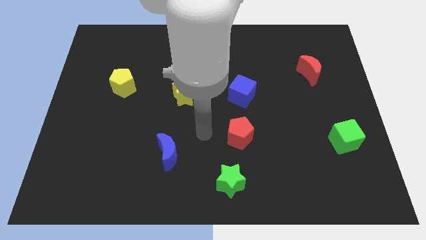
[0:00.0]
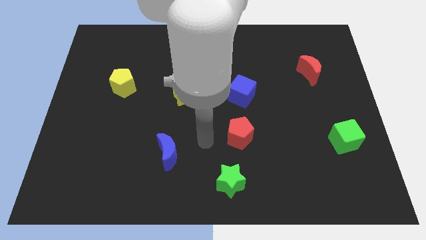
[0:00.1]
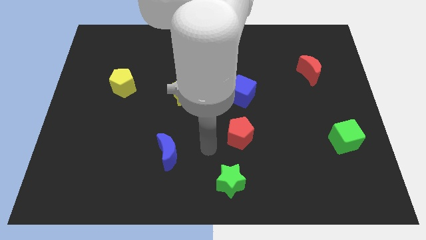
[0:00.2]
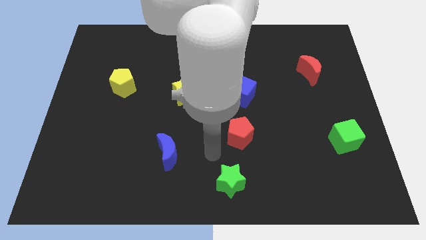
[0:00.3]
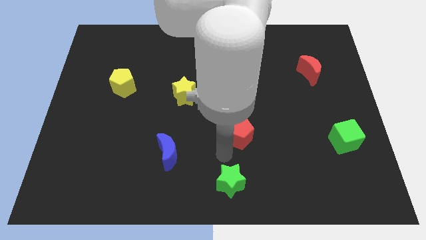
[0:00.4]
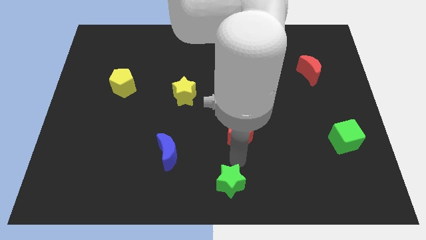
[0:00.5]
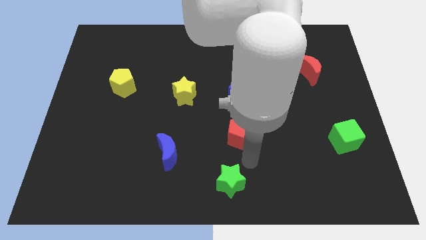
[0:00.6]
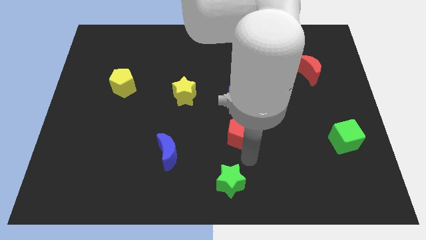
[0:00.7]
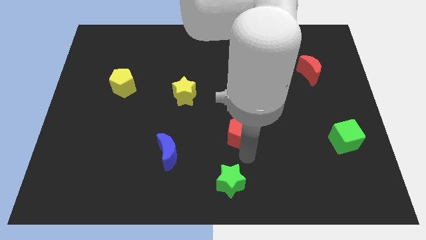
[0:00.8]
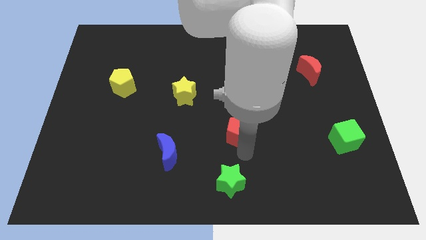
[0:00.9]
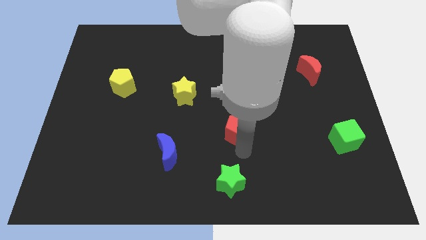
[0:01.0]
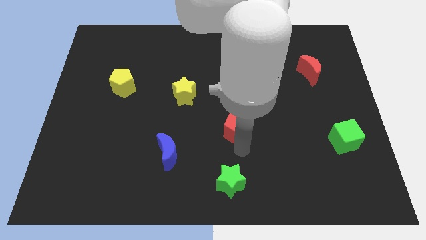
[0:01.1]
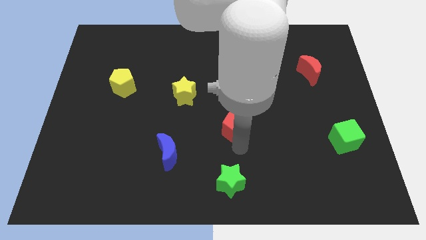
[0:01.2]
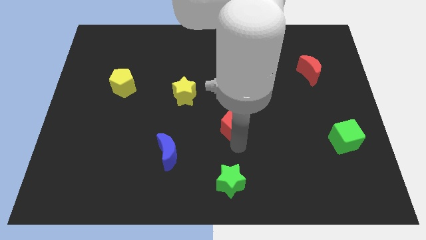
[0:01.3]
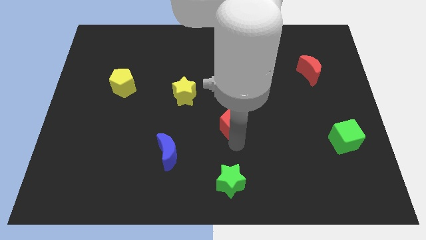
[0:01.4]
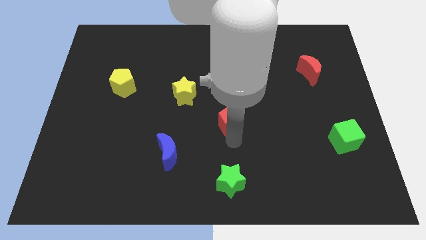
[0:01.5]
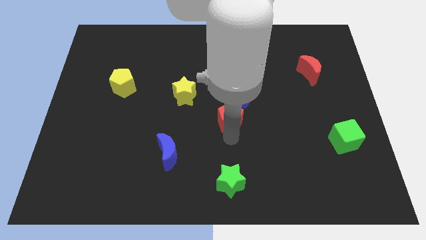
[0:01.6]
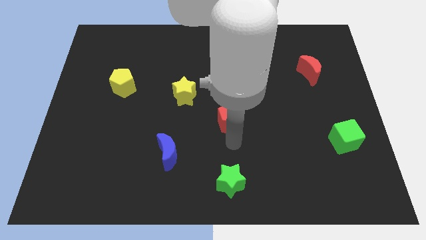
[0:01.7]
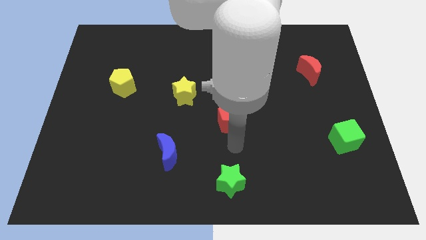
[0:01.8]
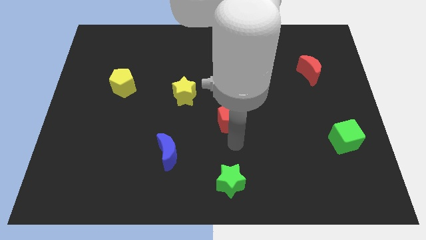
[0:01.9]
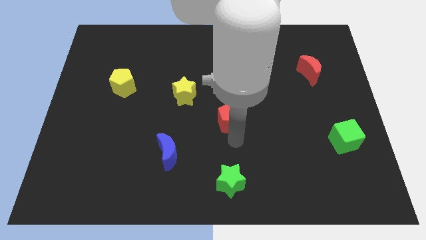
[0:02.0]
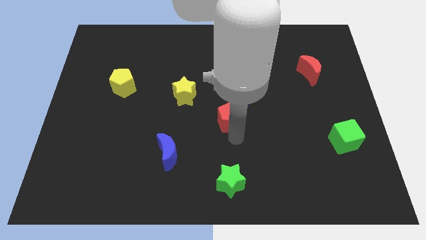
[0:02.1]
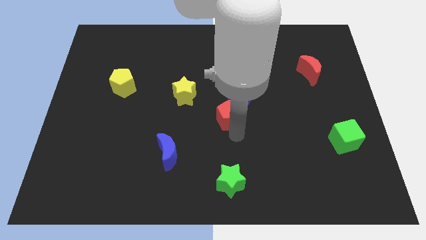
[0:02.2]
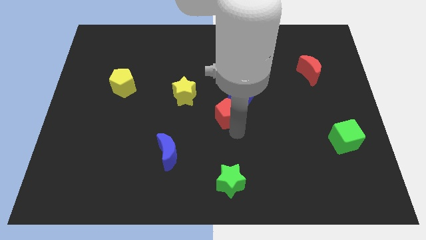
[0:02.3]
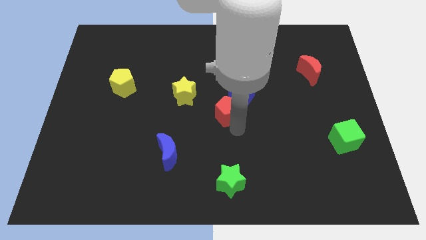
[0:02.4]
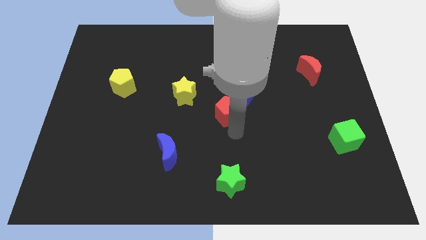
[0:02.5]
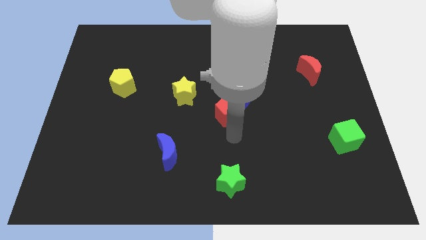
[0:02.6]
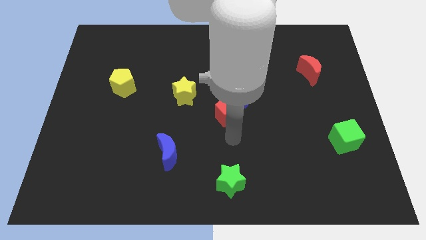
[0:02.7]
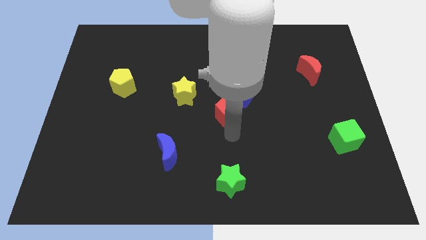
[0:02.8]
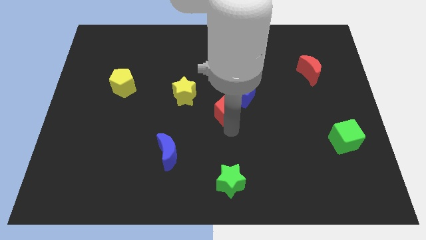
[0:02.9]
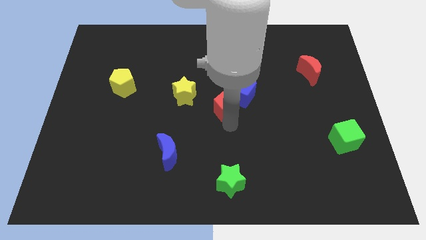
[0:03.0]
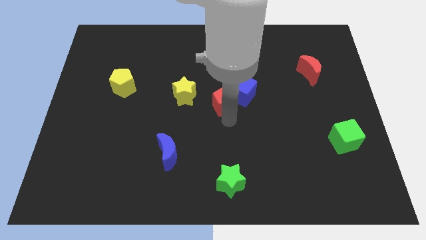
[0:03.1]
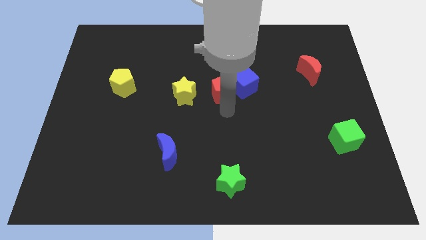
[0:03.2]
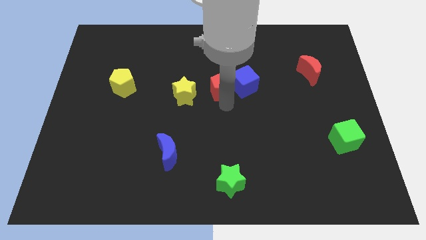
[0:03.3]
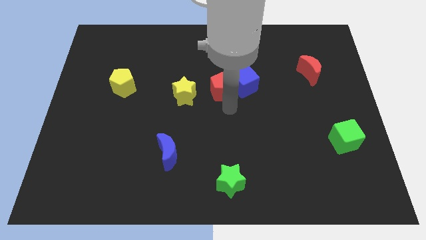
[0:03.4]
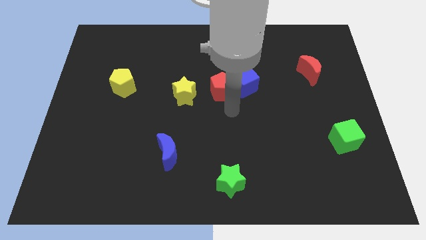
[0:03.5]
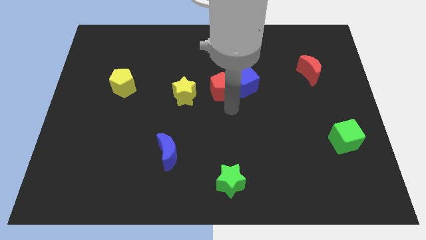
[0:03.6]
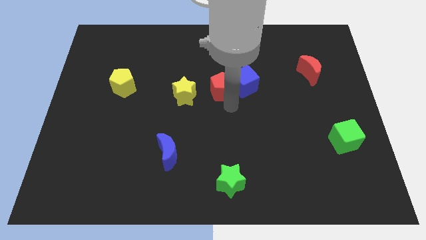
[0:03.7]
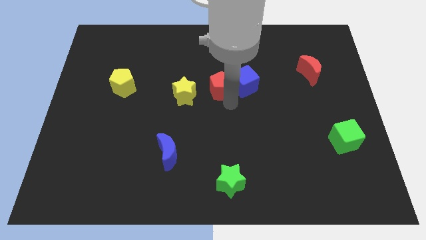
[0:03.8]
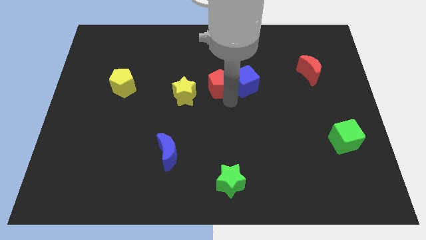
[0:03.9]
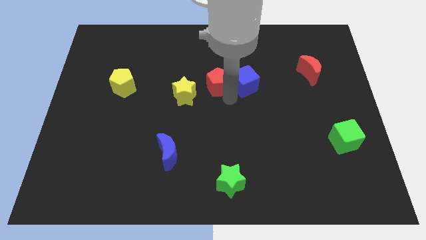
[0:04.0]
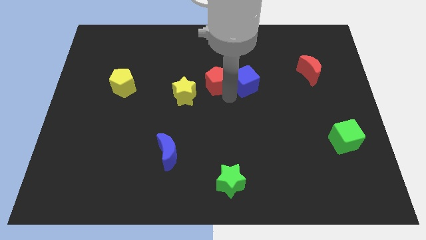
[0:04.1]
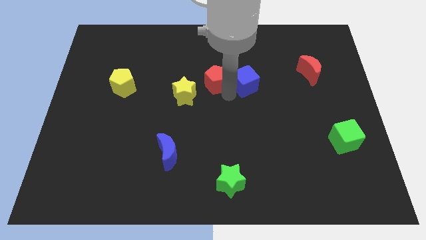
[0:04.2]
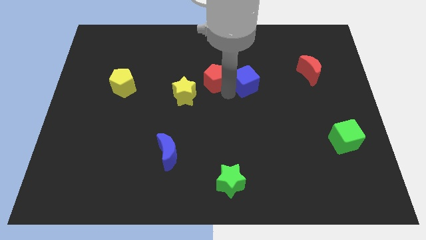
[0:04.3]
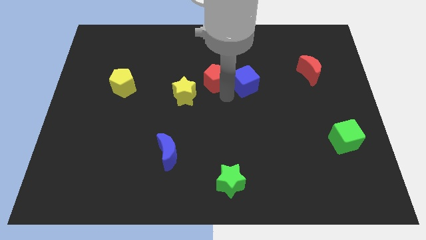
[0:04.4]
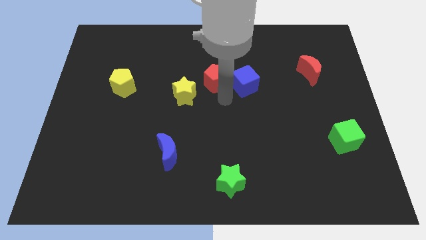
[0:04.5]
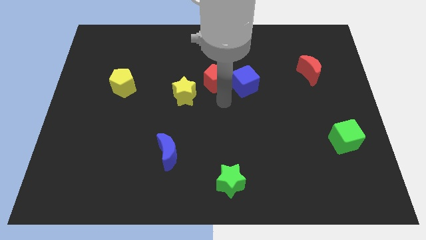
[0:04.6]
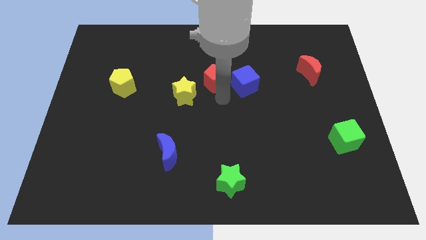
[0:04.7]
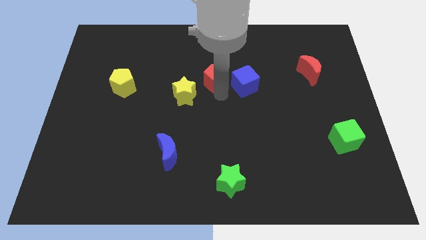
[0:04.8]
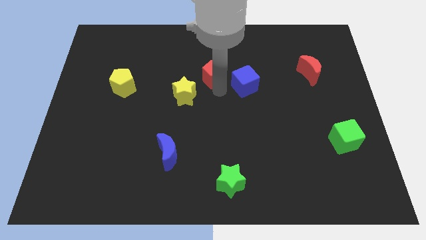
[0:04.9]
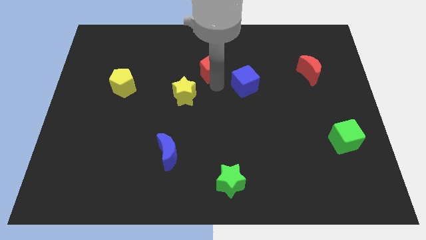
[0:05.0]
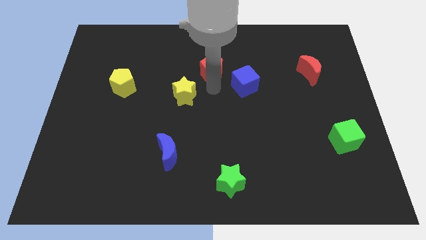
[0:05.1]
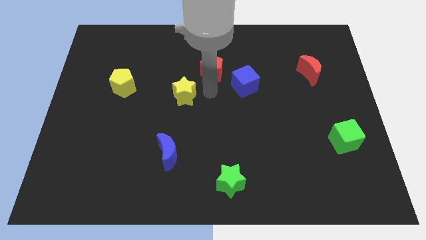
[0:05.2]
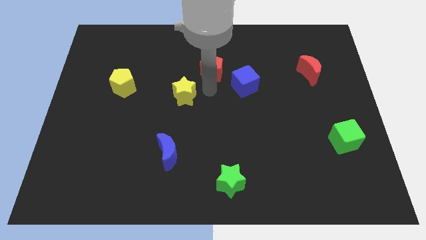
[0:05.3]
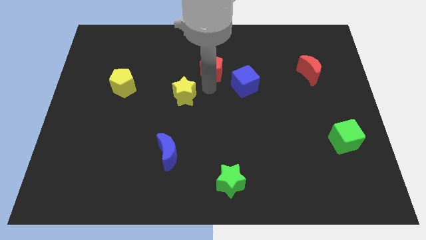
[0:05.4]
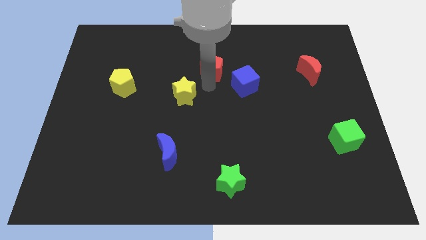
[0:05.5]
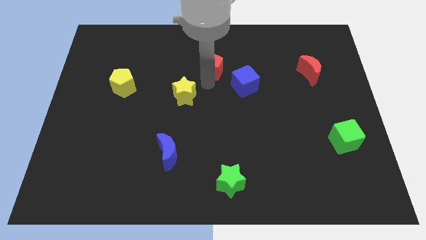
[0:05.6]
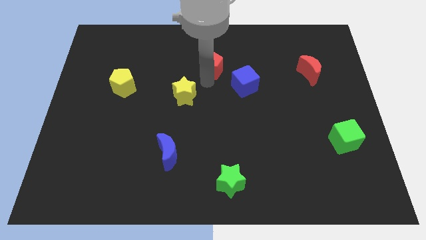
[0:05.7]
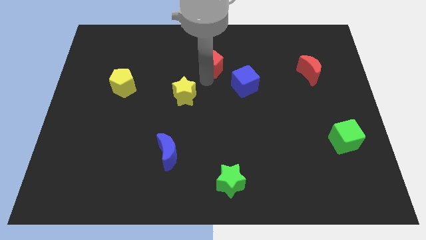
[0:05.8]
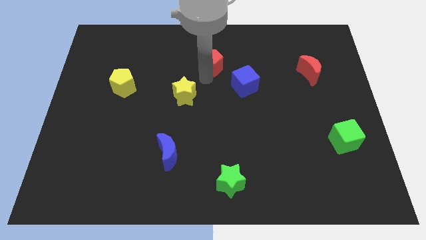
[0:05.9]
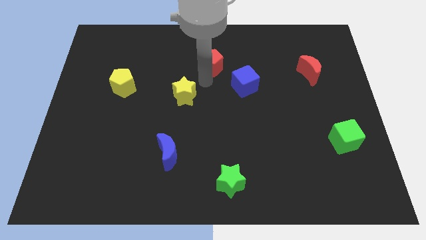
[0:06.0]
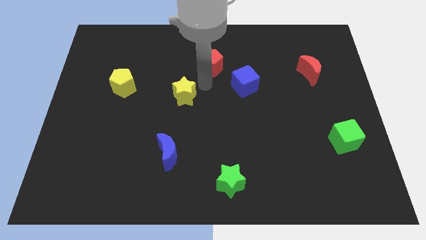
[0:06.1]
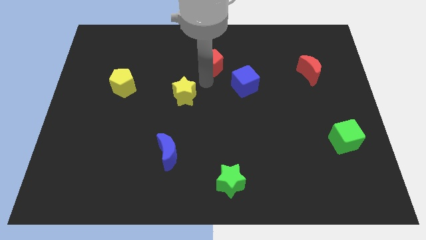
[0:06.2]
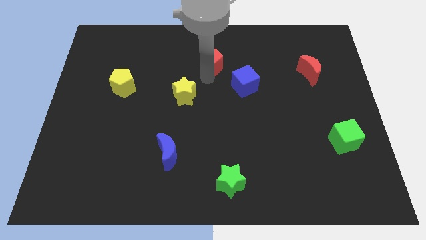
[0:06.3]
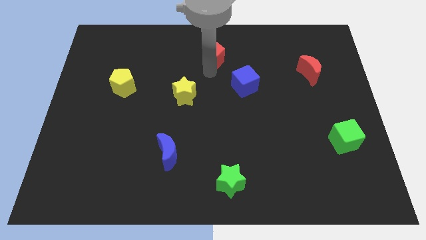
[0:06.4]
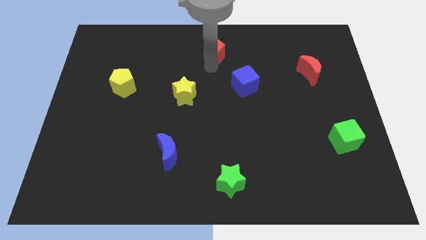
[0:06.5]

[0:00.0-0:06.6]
slide the red pentagon to the top
